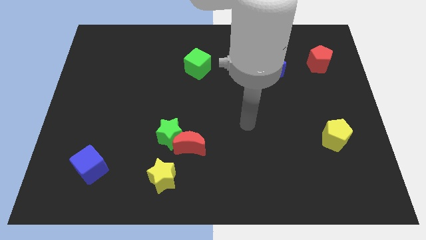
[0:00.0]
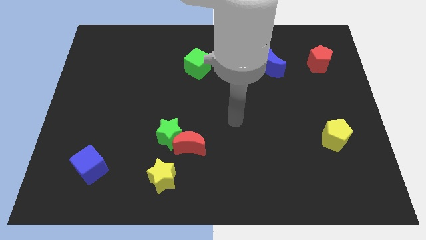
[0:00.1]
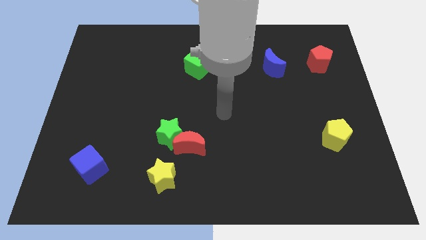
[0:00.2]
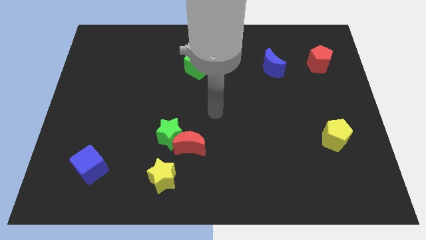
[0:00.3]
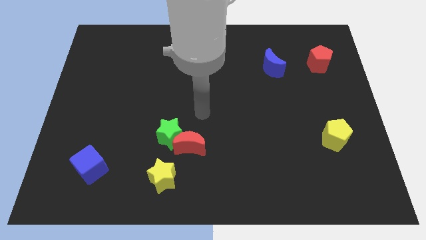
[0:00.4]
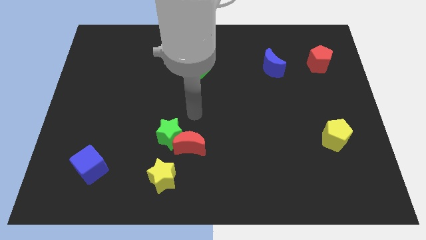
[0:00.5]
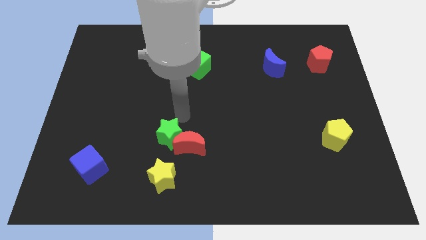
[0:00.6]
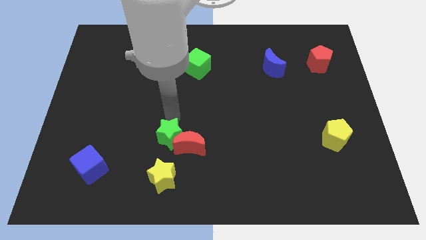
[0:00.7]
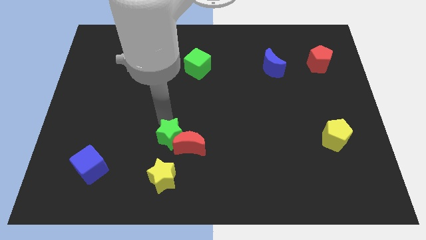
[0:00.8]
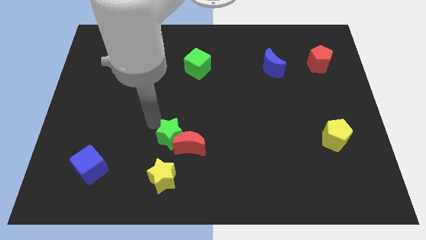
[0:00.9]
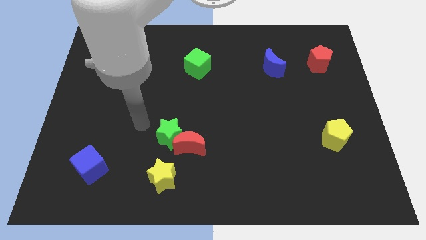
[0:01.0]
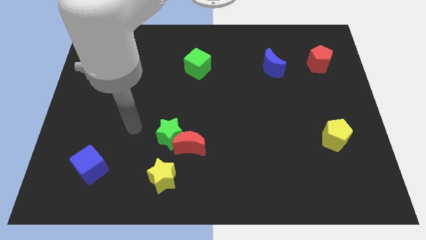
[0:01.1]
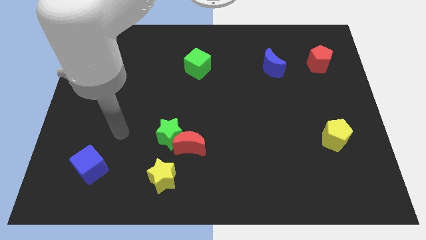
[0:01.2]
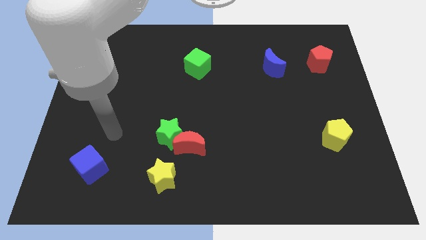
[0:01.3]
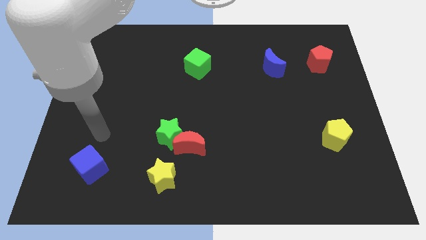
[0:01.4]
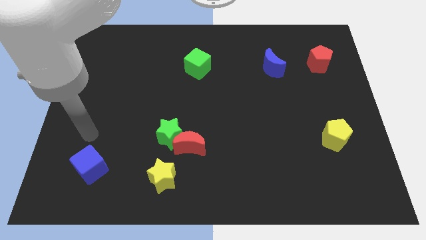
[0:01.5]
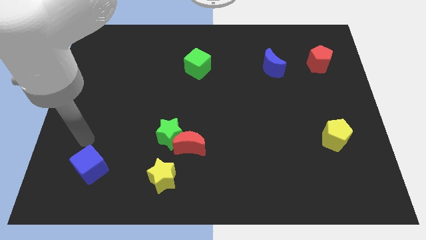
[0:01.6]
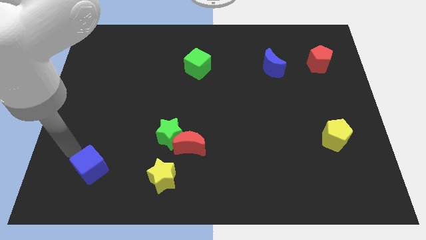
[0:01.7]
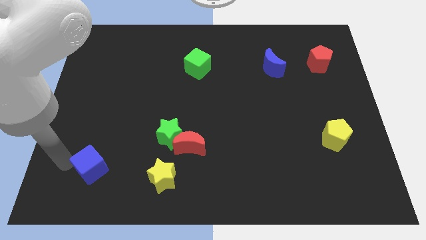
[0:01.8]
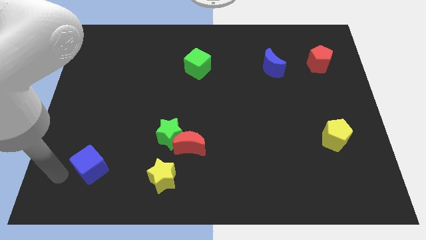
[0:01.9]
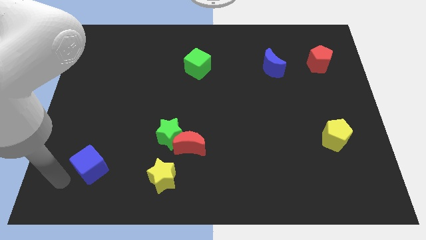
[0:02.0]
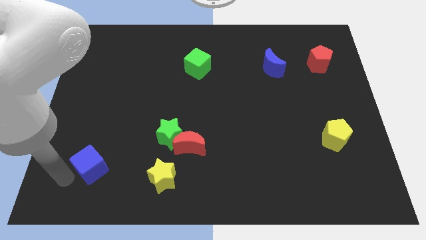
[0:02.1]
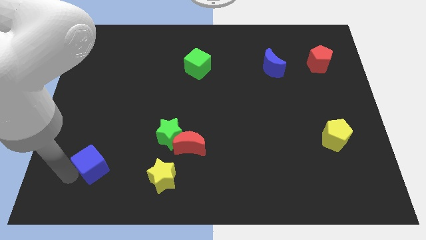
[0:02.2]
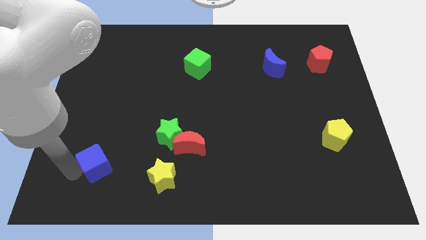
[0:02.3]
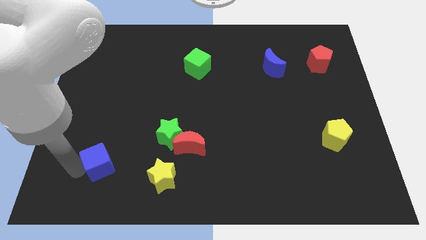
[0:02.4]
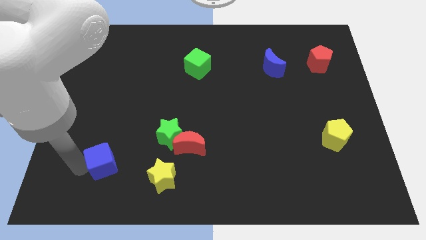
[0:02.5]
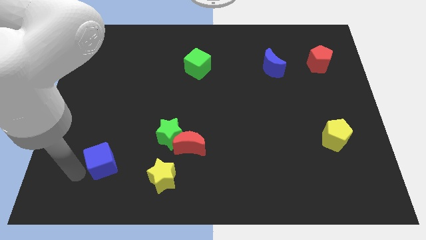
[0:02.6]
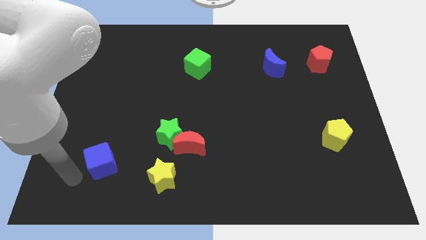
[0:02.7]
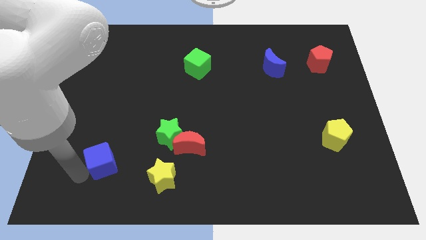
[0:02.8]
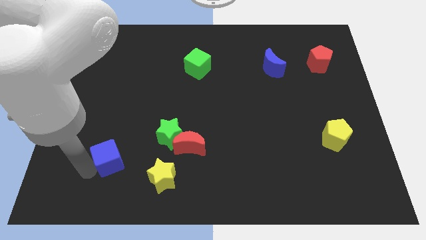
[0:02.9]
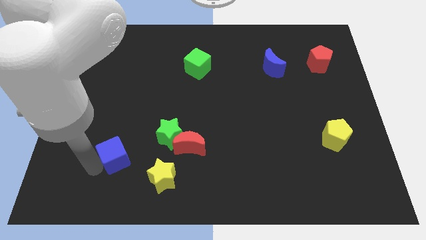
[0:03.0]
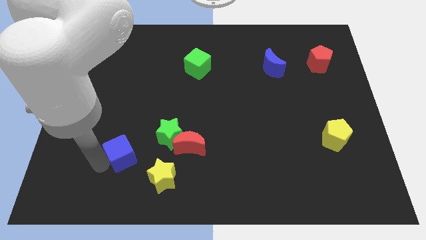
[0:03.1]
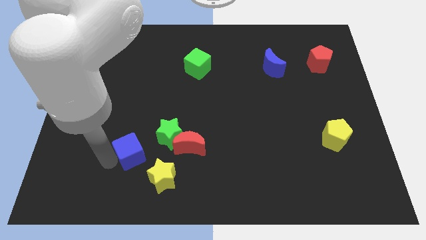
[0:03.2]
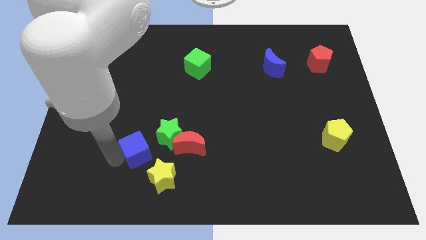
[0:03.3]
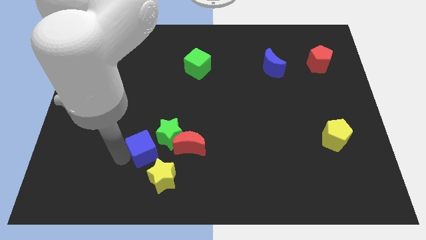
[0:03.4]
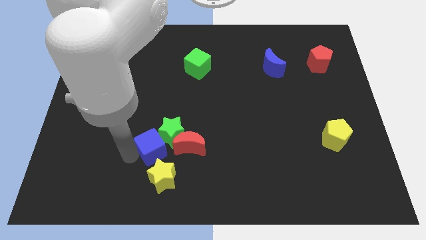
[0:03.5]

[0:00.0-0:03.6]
move the blue cube next to the green star

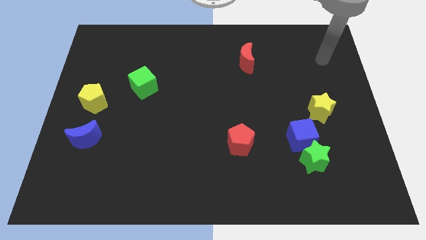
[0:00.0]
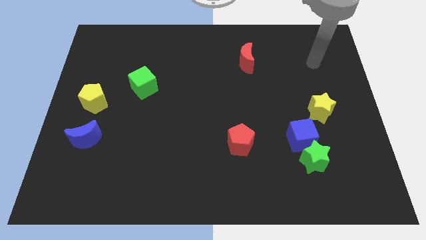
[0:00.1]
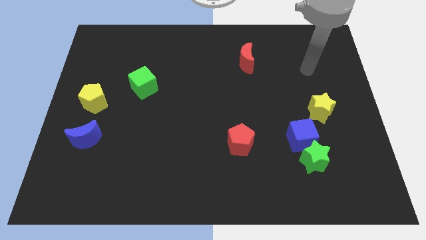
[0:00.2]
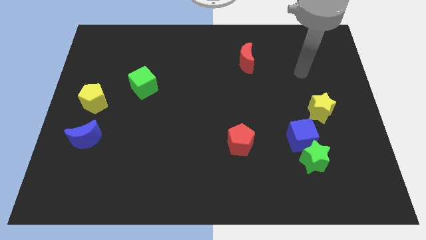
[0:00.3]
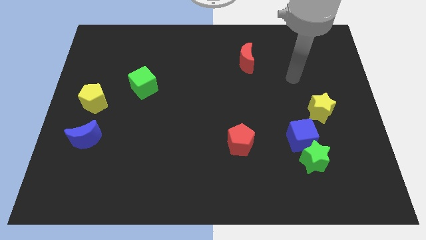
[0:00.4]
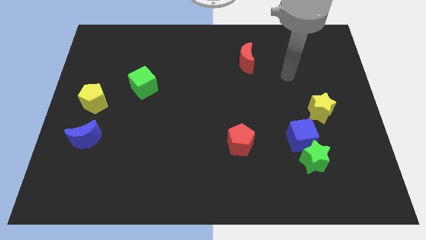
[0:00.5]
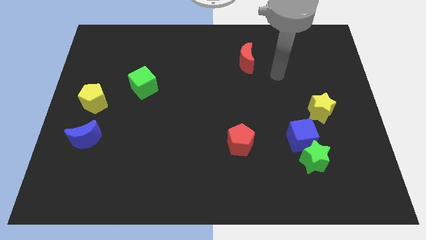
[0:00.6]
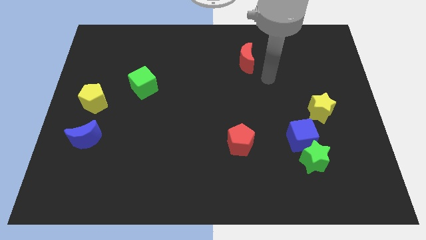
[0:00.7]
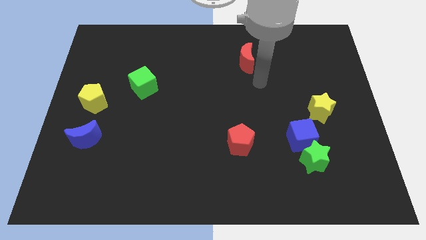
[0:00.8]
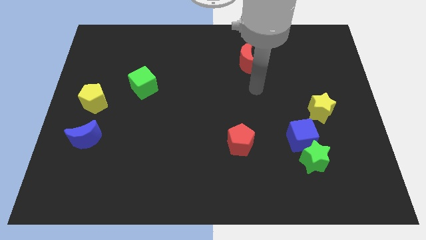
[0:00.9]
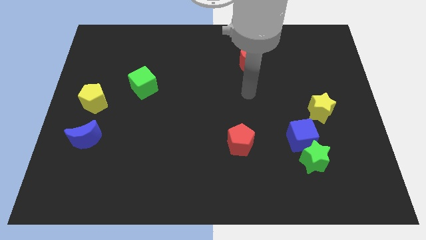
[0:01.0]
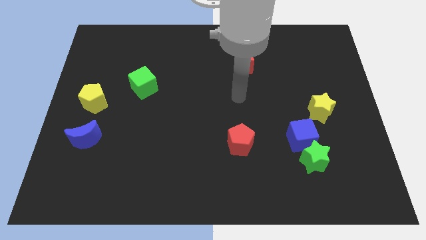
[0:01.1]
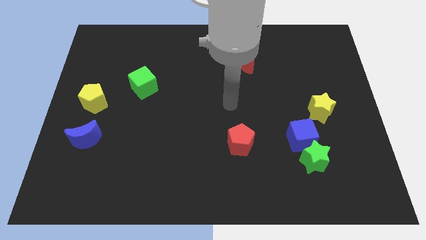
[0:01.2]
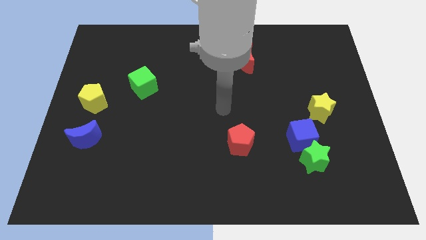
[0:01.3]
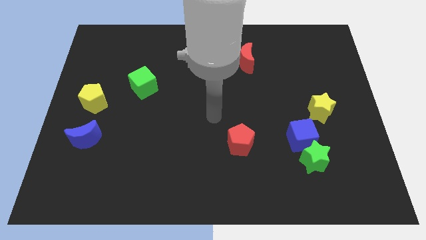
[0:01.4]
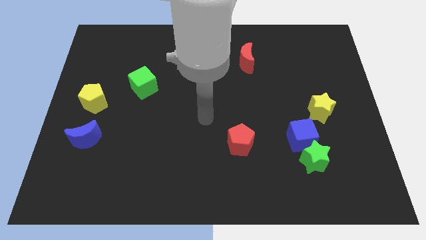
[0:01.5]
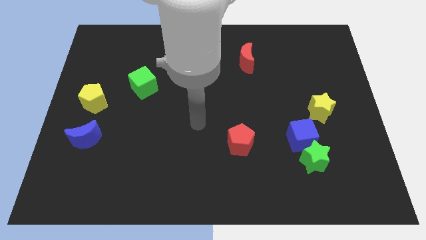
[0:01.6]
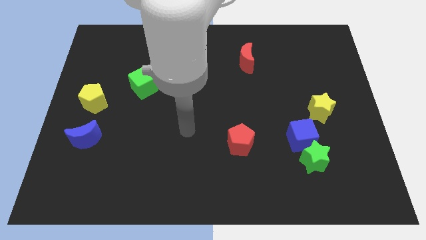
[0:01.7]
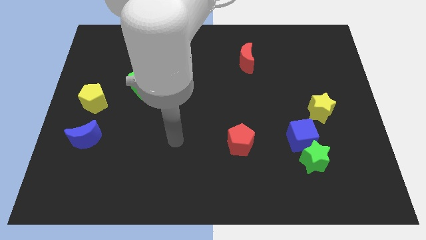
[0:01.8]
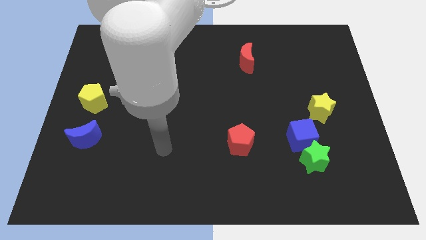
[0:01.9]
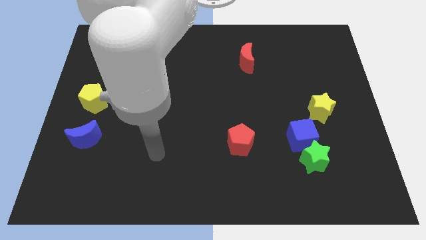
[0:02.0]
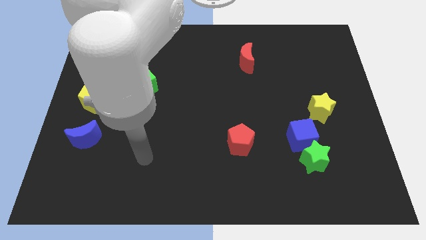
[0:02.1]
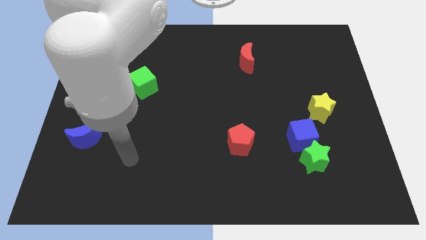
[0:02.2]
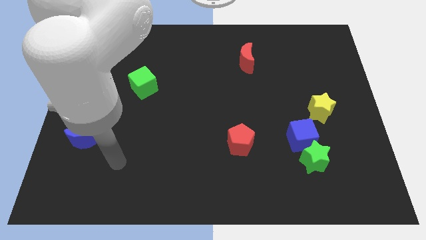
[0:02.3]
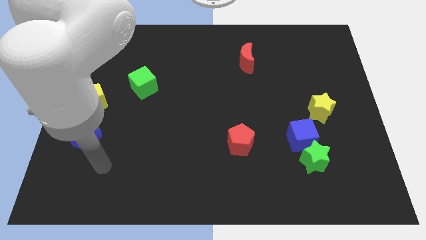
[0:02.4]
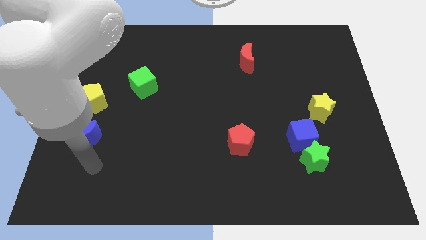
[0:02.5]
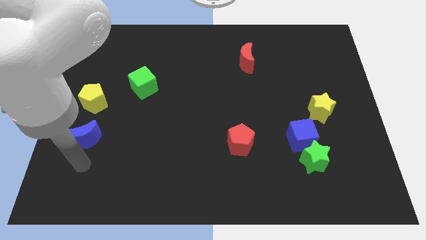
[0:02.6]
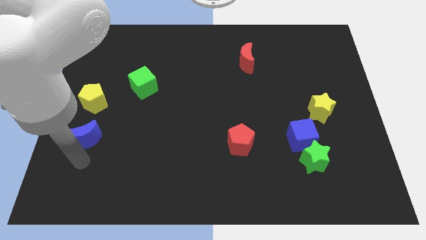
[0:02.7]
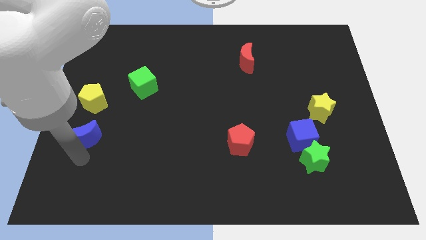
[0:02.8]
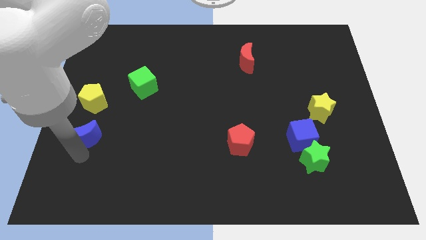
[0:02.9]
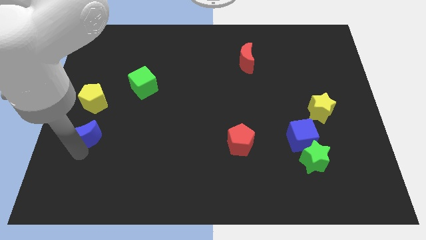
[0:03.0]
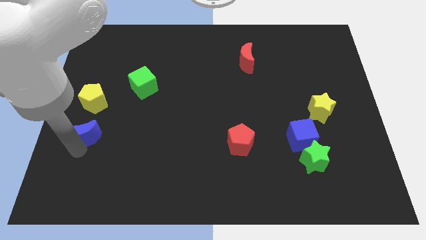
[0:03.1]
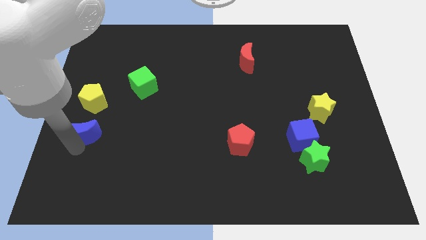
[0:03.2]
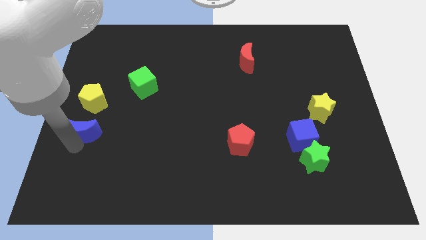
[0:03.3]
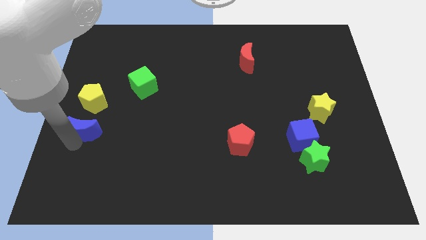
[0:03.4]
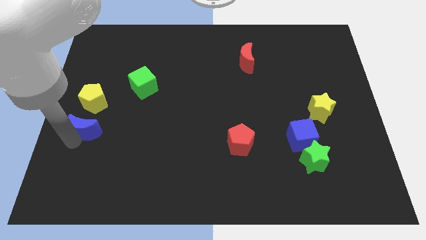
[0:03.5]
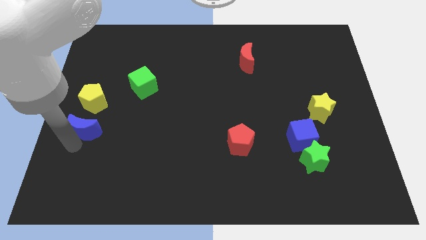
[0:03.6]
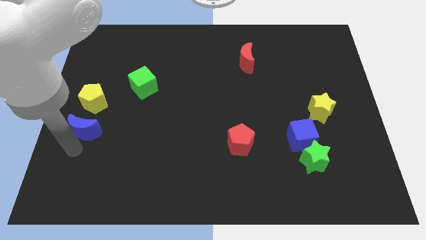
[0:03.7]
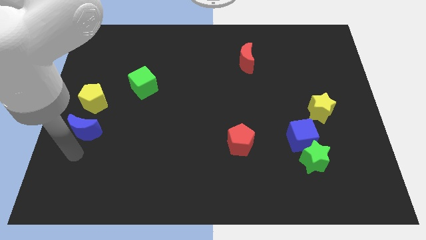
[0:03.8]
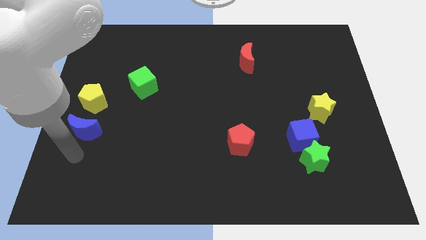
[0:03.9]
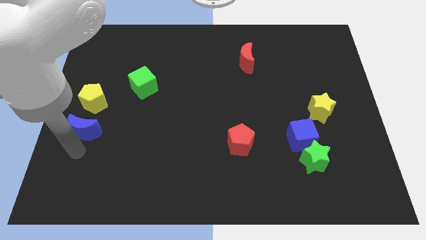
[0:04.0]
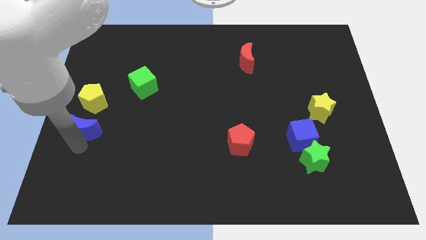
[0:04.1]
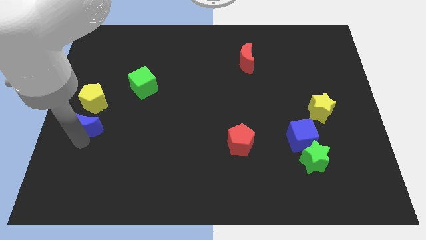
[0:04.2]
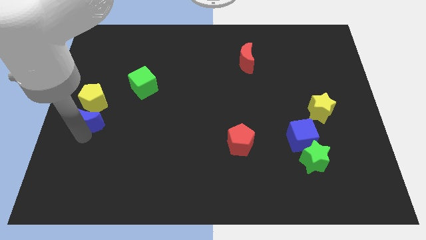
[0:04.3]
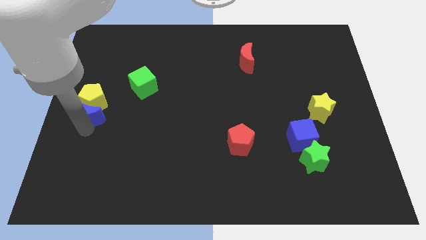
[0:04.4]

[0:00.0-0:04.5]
push the blue moon towards the yellow pentagon

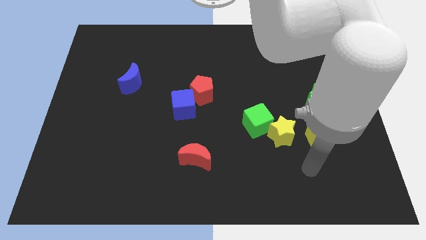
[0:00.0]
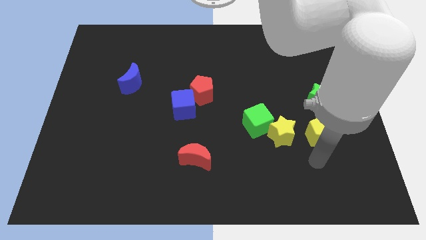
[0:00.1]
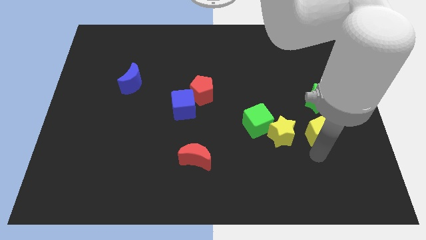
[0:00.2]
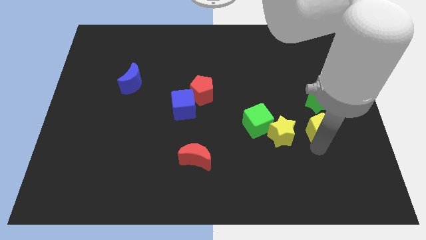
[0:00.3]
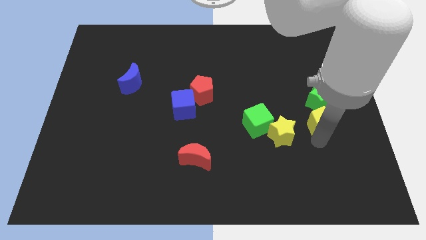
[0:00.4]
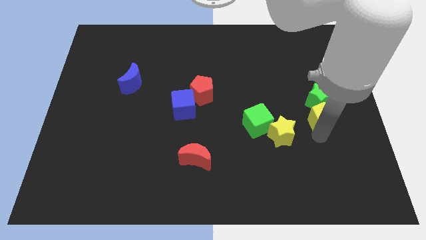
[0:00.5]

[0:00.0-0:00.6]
push the yellow pentagon towards the green star
